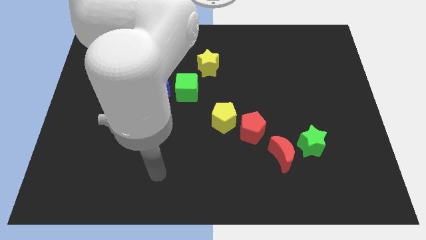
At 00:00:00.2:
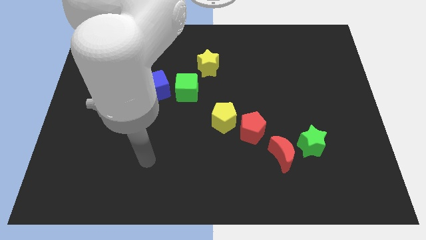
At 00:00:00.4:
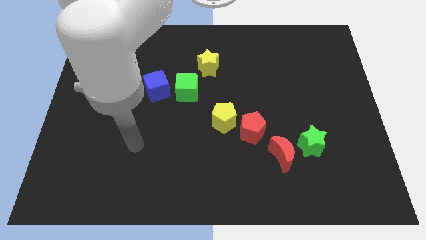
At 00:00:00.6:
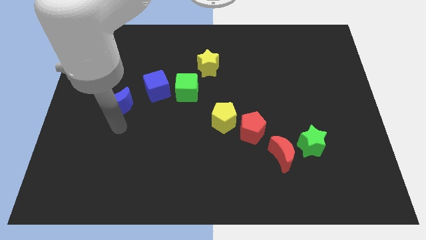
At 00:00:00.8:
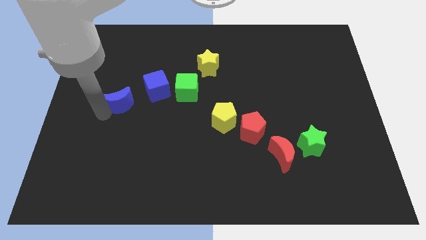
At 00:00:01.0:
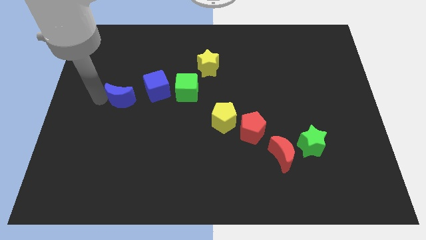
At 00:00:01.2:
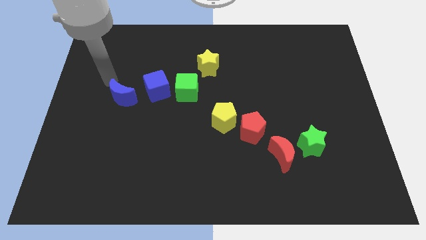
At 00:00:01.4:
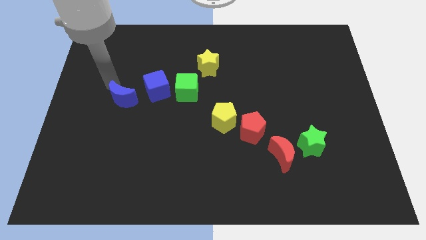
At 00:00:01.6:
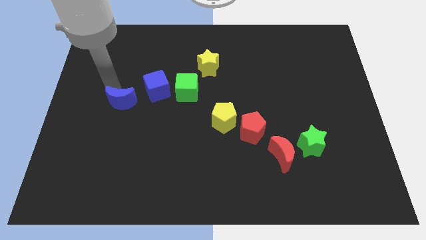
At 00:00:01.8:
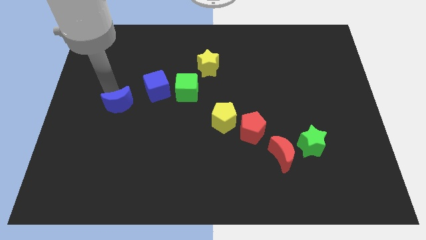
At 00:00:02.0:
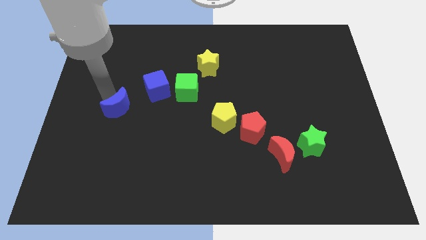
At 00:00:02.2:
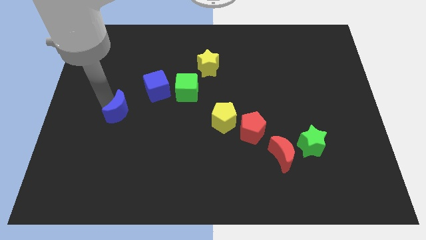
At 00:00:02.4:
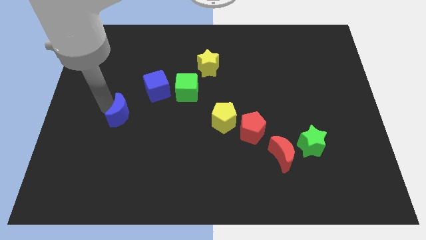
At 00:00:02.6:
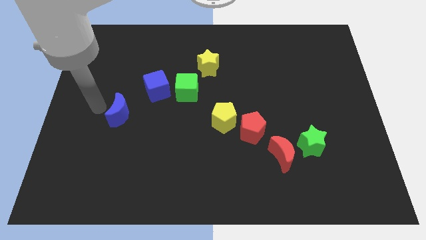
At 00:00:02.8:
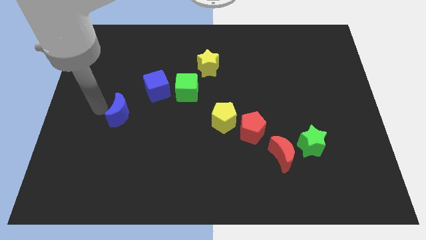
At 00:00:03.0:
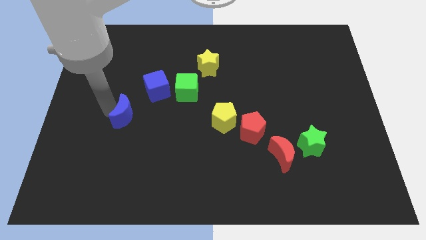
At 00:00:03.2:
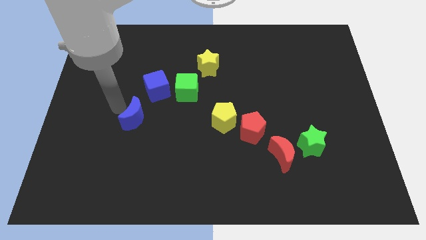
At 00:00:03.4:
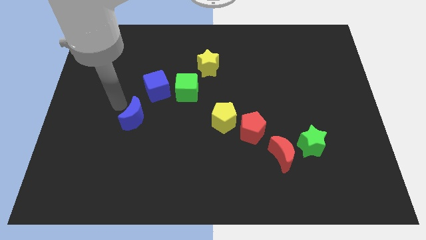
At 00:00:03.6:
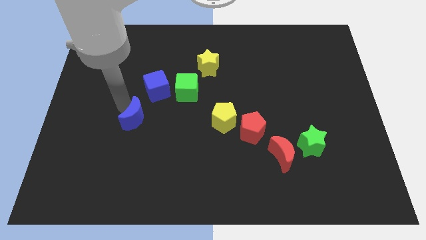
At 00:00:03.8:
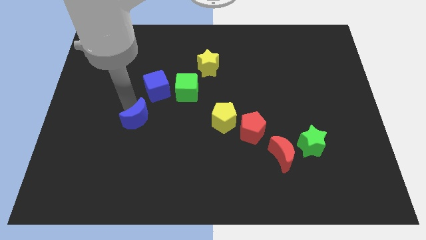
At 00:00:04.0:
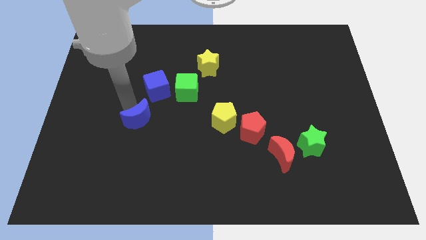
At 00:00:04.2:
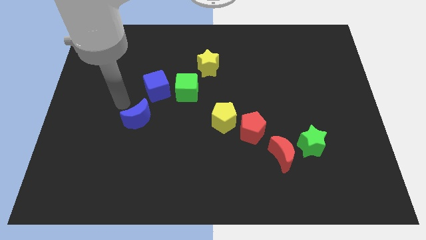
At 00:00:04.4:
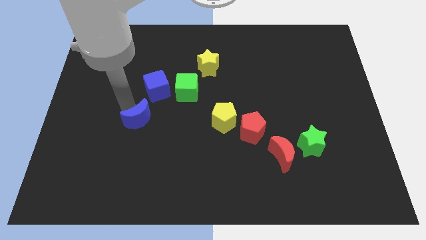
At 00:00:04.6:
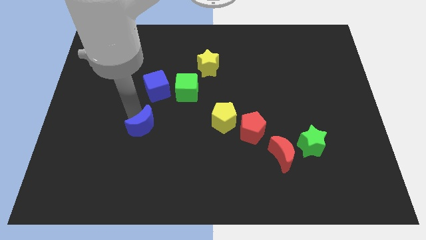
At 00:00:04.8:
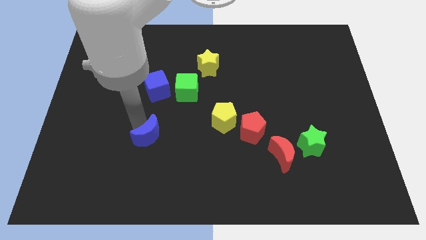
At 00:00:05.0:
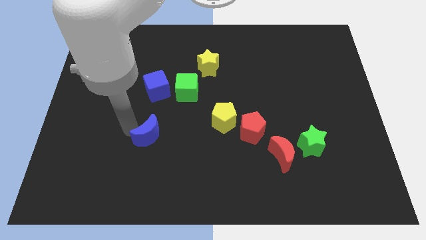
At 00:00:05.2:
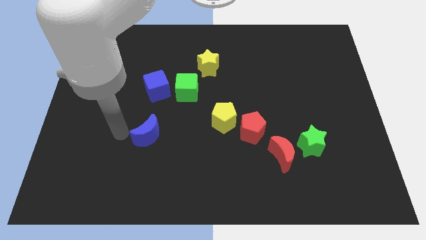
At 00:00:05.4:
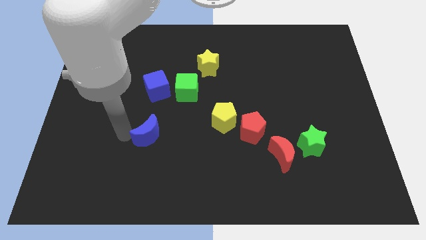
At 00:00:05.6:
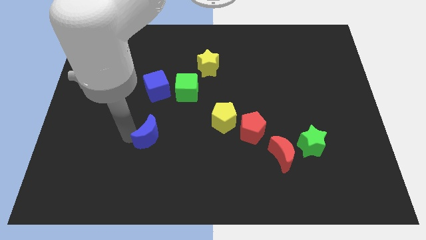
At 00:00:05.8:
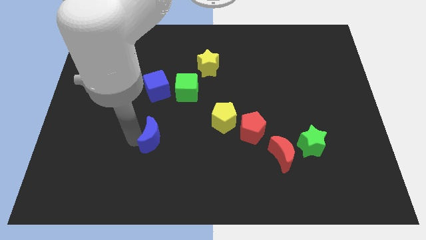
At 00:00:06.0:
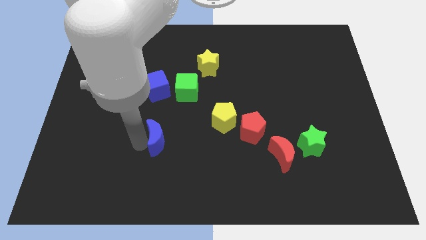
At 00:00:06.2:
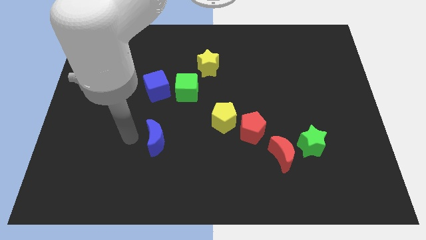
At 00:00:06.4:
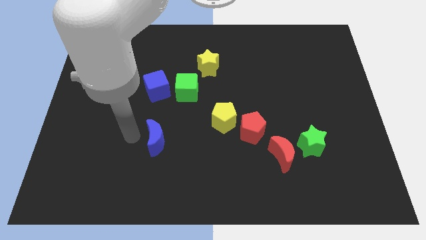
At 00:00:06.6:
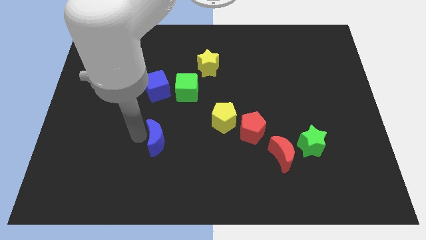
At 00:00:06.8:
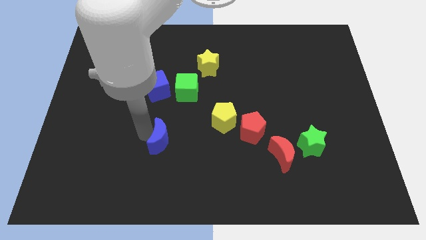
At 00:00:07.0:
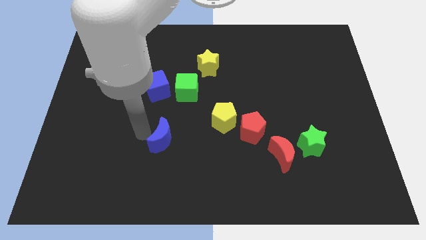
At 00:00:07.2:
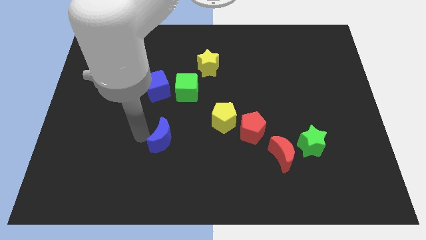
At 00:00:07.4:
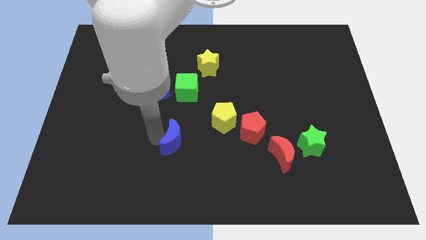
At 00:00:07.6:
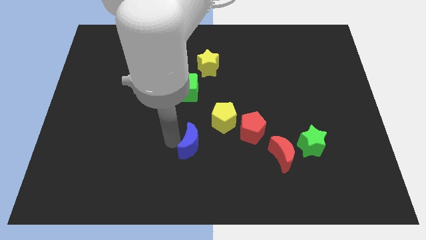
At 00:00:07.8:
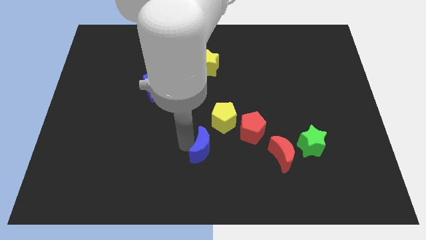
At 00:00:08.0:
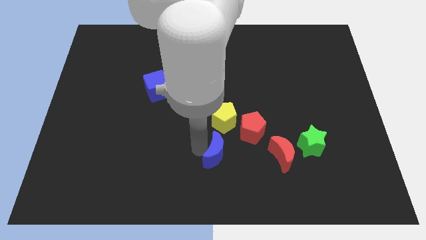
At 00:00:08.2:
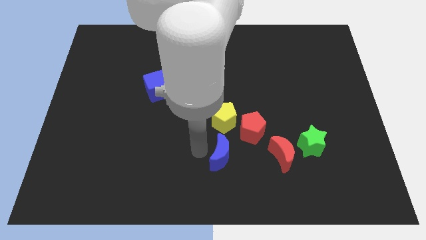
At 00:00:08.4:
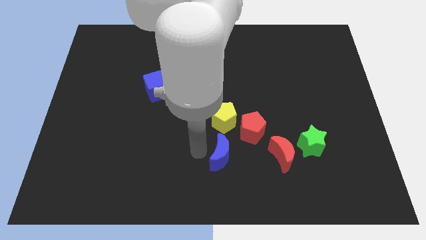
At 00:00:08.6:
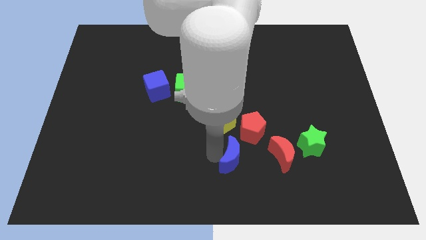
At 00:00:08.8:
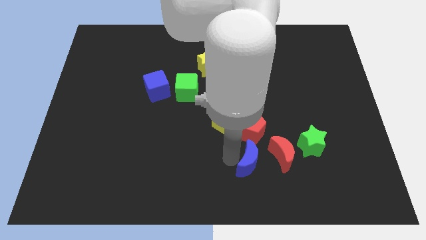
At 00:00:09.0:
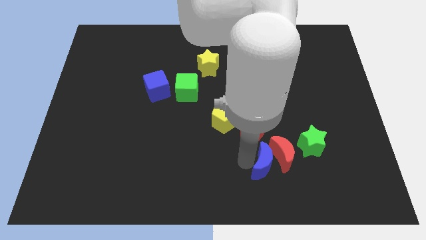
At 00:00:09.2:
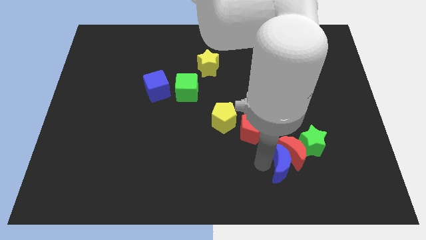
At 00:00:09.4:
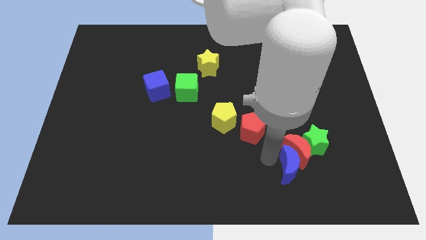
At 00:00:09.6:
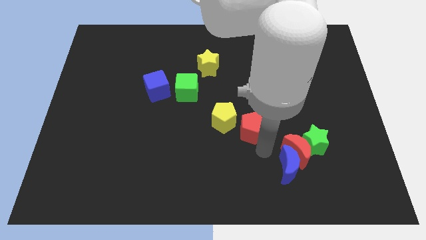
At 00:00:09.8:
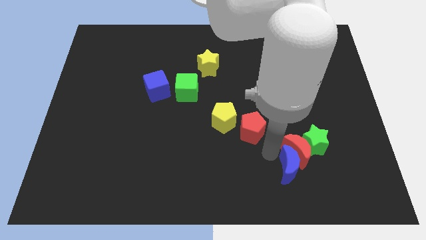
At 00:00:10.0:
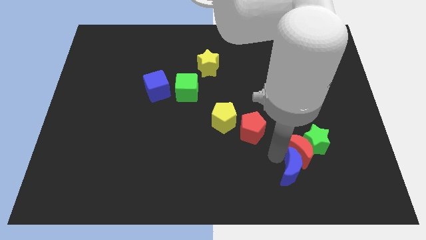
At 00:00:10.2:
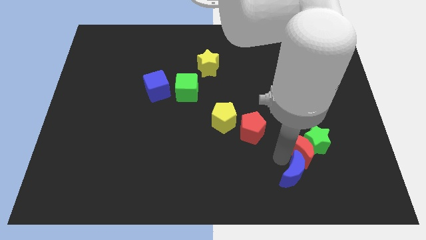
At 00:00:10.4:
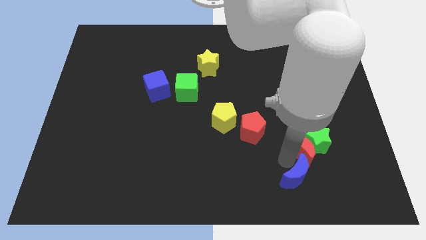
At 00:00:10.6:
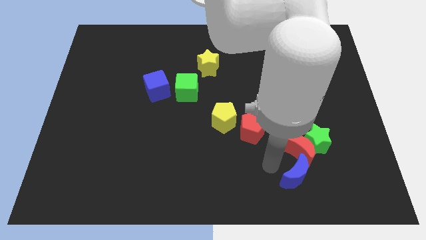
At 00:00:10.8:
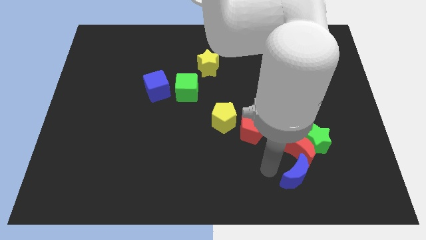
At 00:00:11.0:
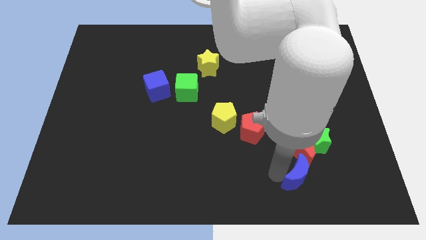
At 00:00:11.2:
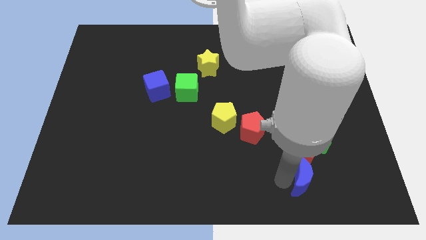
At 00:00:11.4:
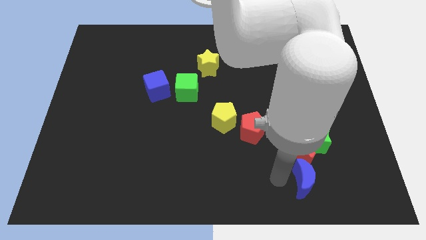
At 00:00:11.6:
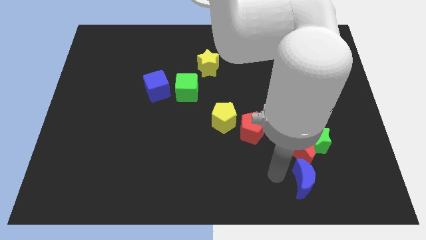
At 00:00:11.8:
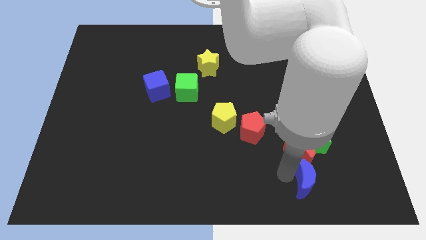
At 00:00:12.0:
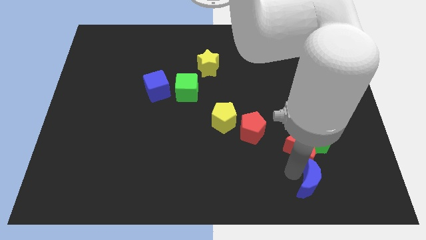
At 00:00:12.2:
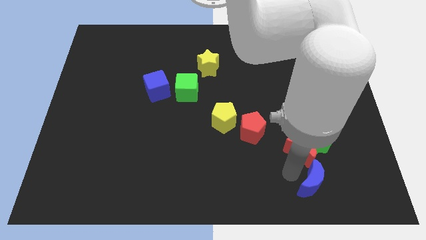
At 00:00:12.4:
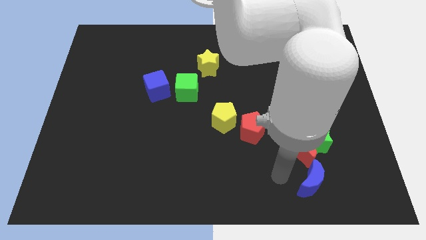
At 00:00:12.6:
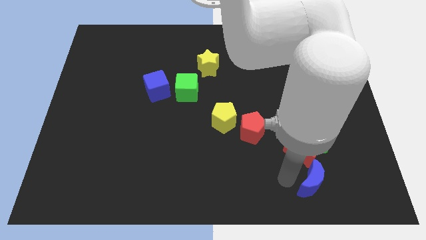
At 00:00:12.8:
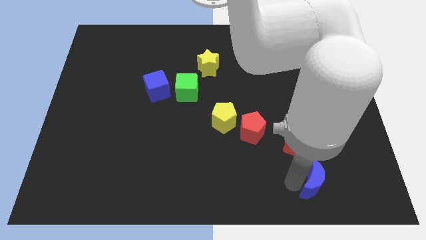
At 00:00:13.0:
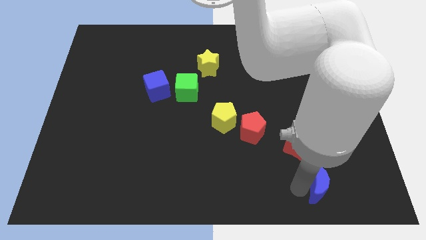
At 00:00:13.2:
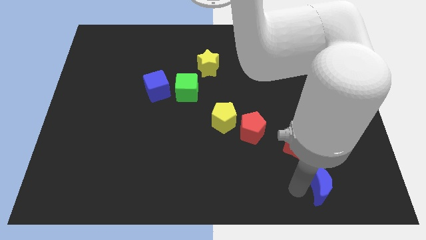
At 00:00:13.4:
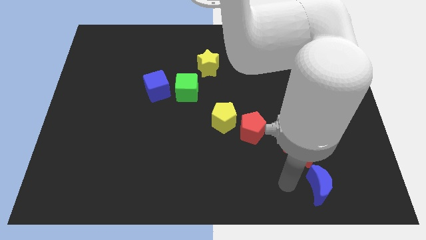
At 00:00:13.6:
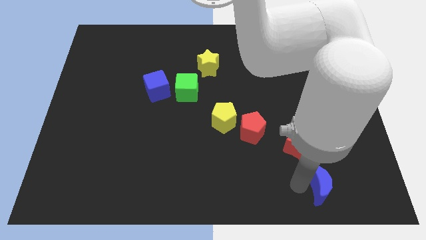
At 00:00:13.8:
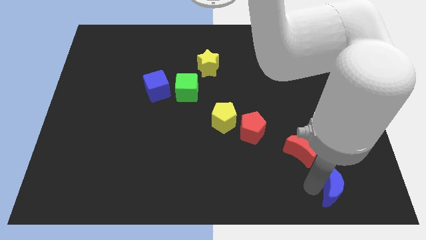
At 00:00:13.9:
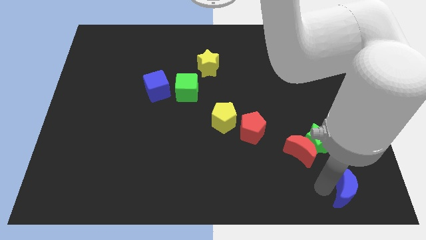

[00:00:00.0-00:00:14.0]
push the blue moon to the bottom right corner
